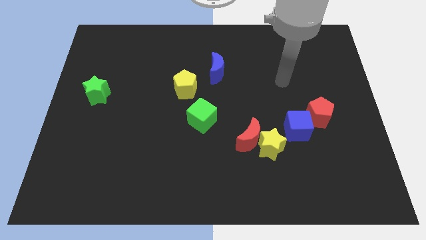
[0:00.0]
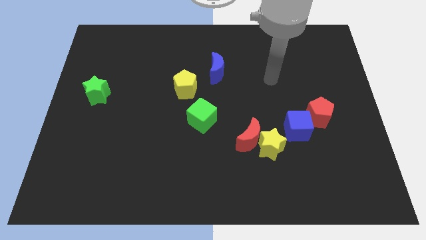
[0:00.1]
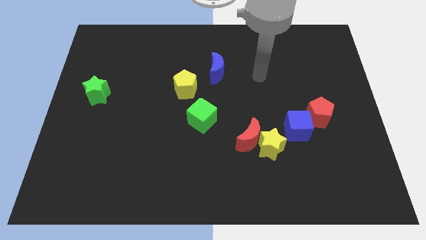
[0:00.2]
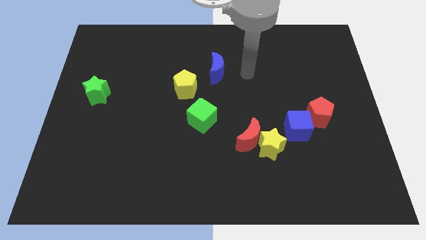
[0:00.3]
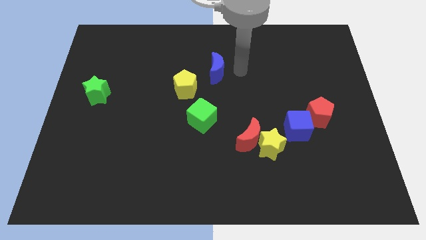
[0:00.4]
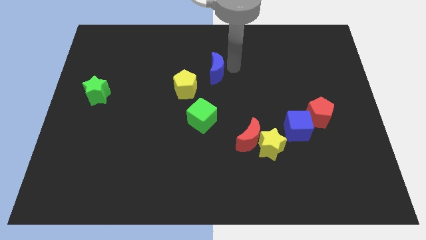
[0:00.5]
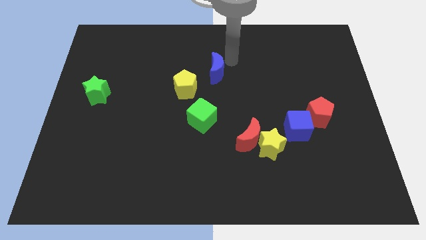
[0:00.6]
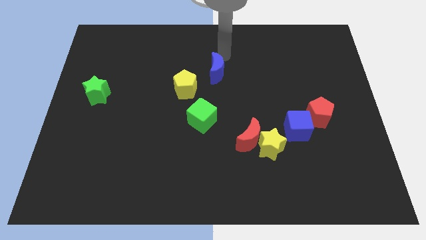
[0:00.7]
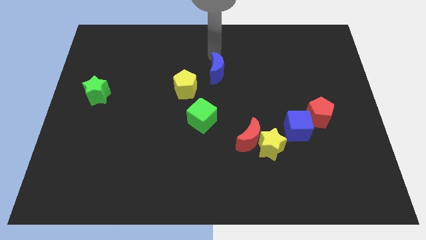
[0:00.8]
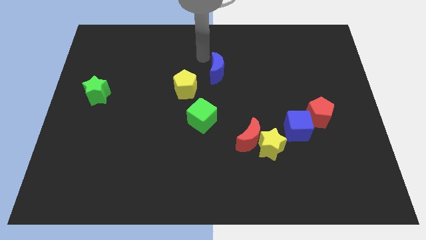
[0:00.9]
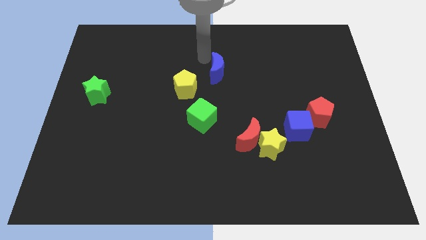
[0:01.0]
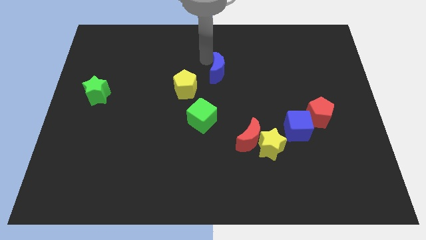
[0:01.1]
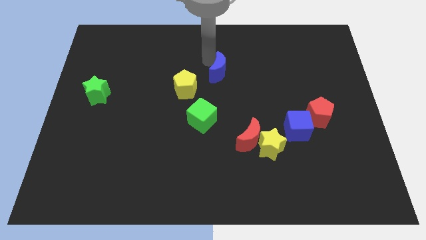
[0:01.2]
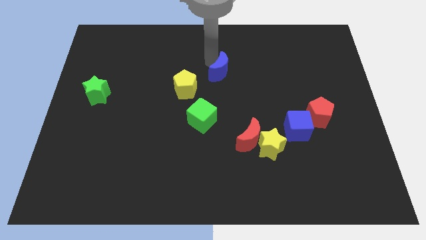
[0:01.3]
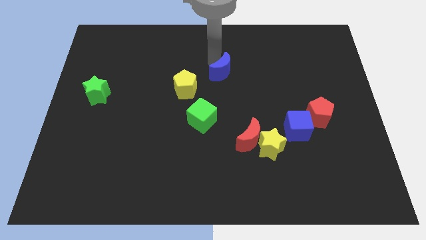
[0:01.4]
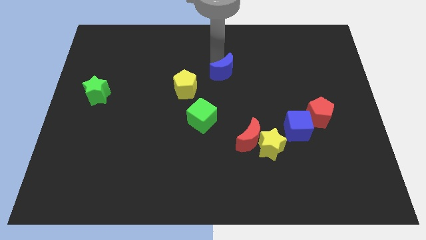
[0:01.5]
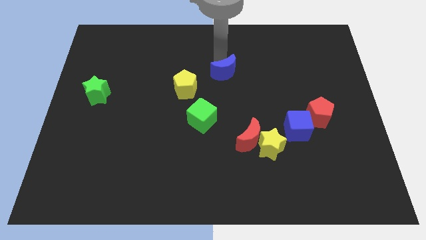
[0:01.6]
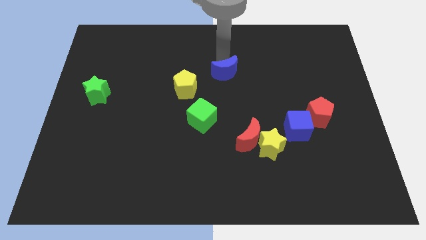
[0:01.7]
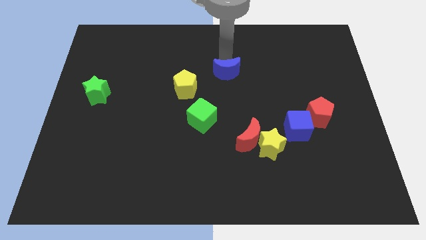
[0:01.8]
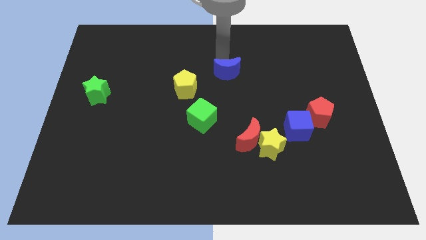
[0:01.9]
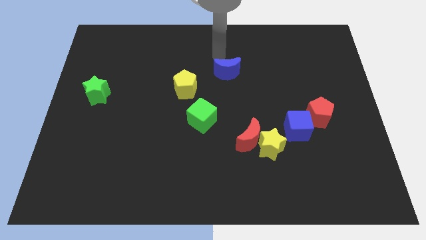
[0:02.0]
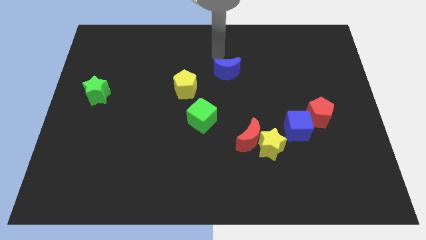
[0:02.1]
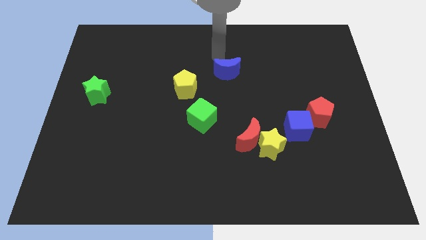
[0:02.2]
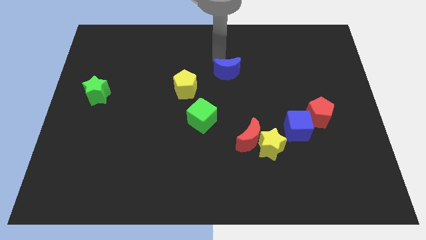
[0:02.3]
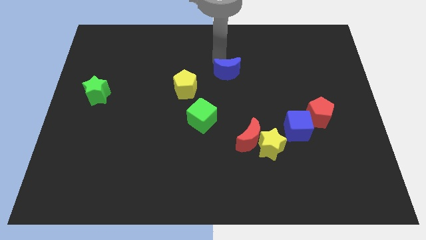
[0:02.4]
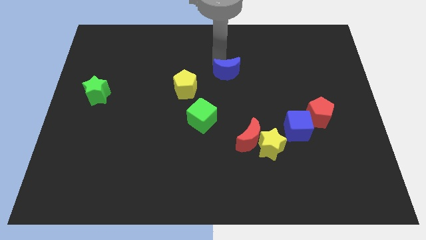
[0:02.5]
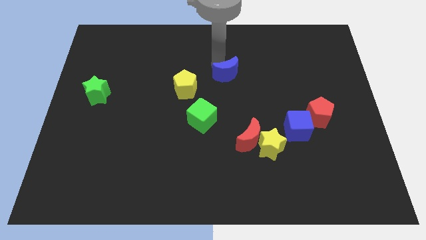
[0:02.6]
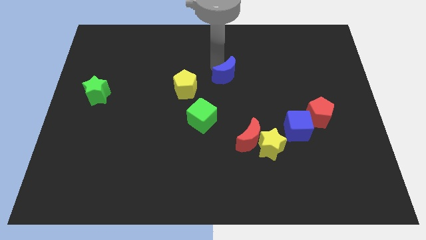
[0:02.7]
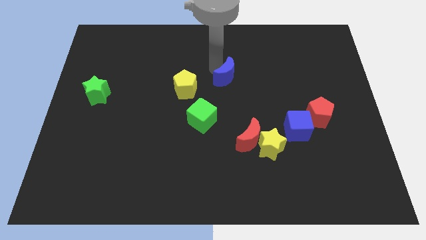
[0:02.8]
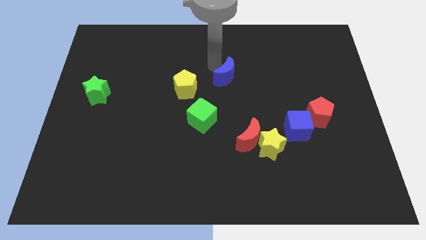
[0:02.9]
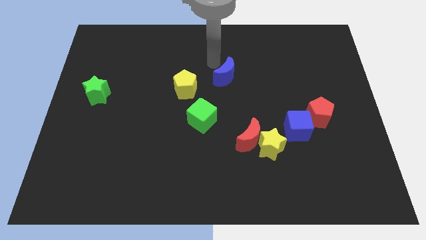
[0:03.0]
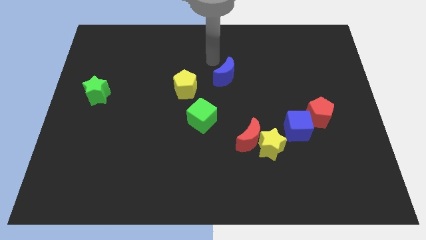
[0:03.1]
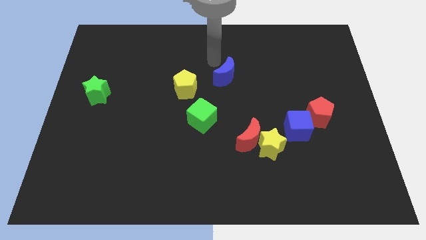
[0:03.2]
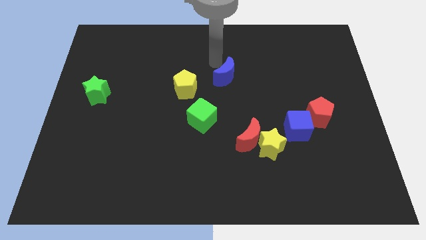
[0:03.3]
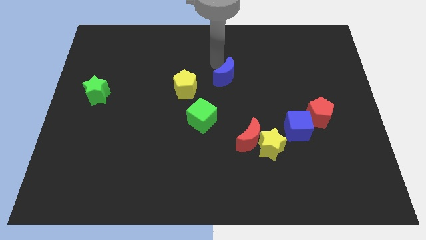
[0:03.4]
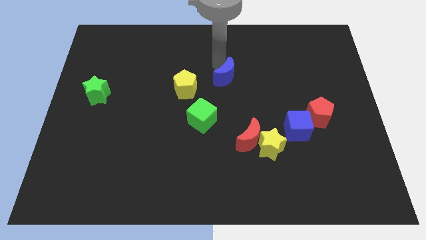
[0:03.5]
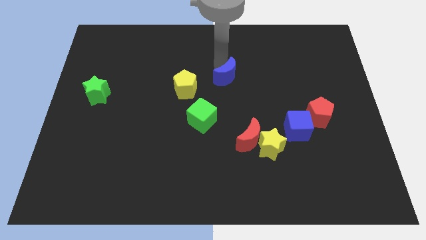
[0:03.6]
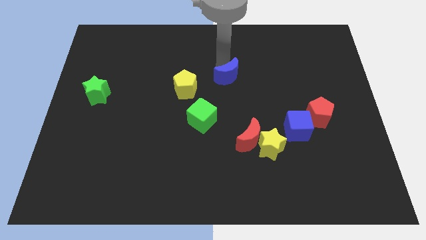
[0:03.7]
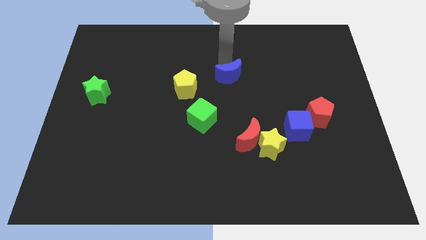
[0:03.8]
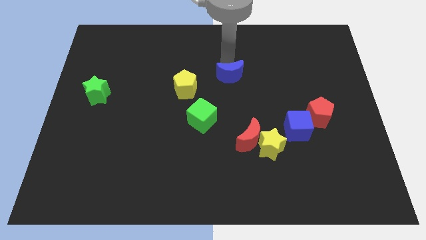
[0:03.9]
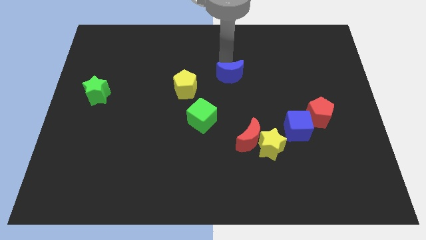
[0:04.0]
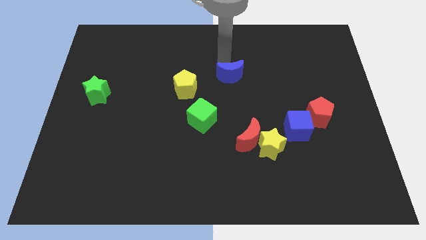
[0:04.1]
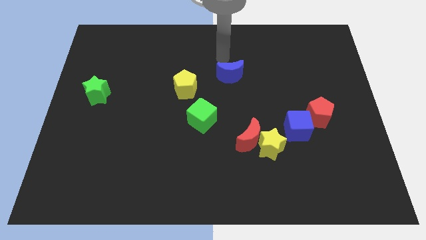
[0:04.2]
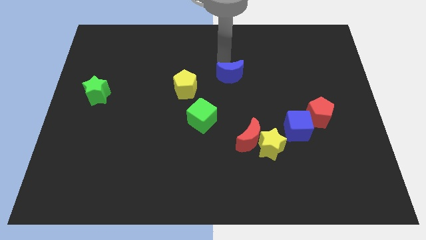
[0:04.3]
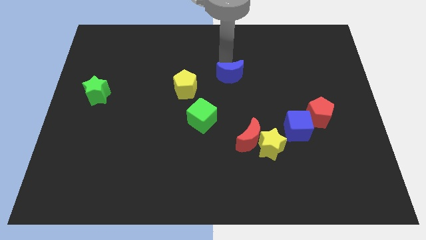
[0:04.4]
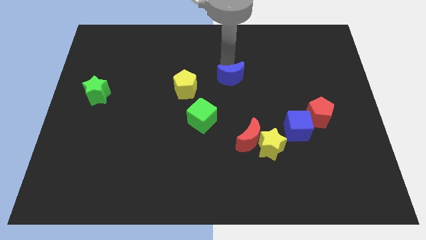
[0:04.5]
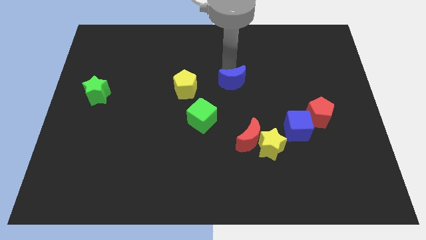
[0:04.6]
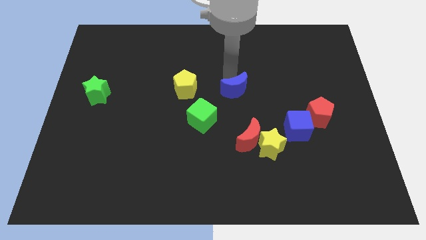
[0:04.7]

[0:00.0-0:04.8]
slightly move the blue moon downwards and to the right diagonally

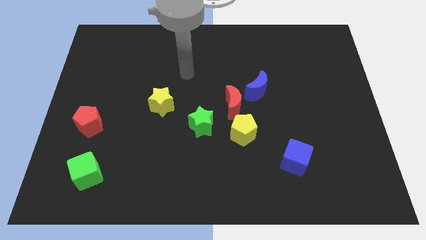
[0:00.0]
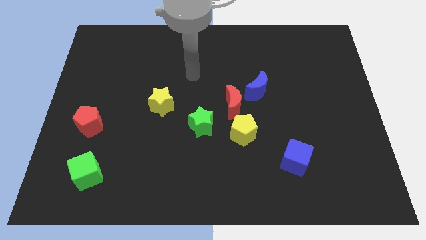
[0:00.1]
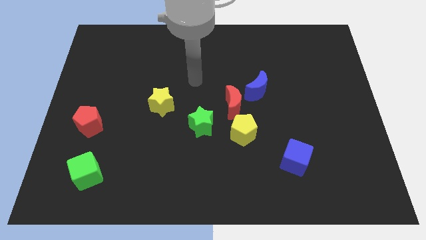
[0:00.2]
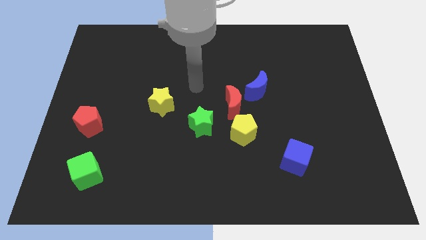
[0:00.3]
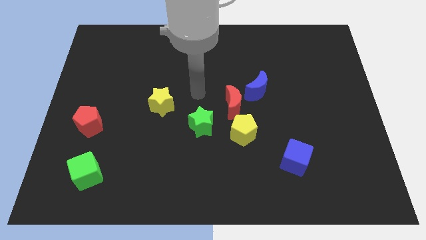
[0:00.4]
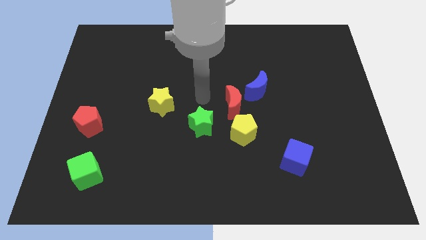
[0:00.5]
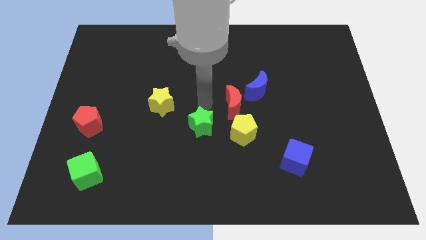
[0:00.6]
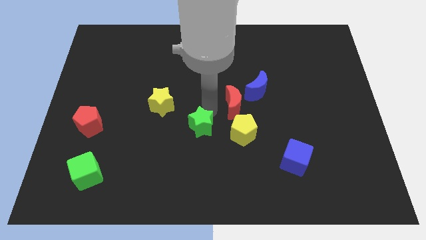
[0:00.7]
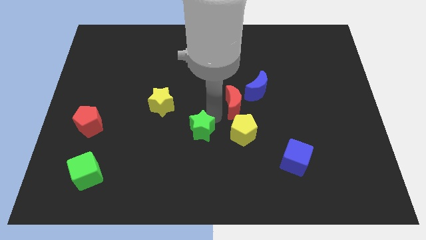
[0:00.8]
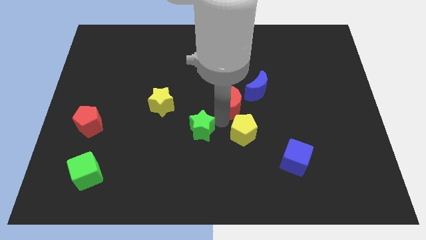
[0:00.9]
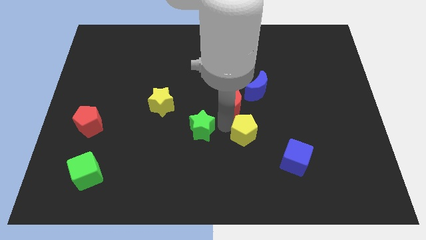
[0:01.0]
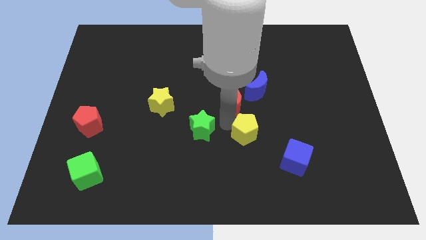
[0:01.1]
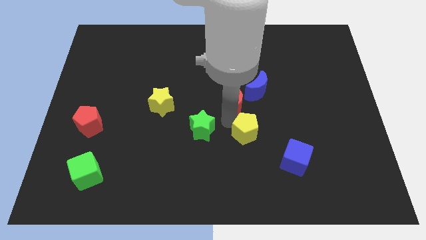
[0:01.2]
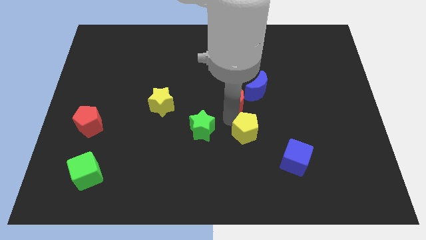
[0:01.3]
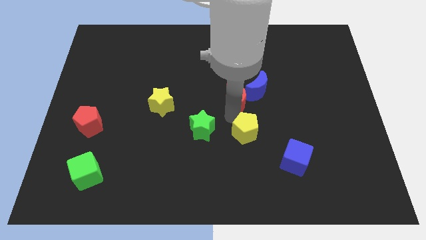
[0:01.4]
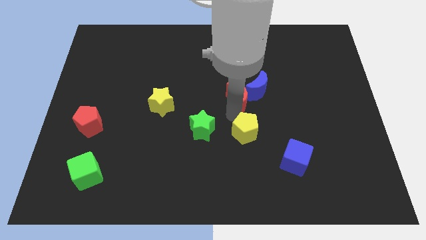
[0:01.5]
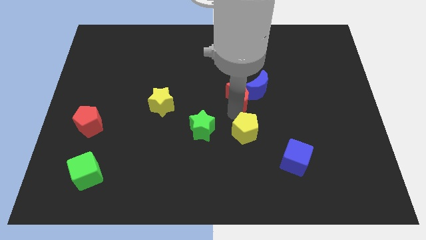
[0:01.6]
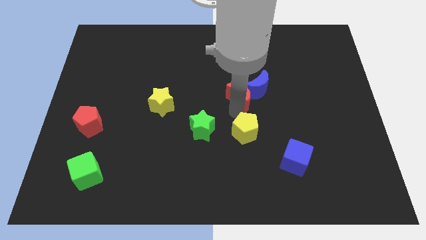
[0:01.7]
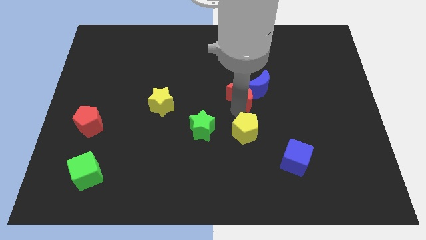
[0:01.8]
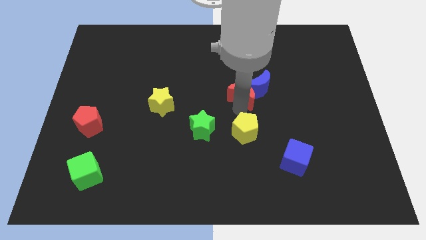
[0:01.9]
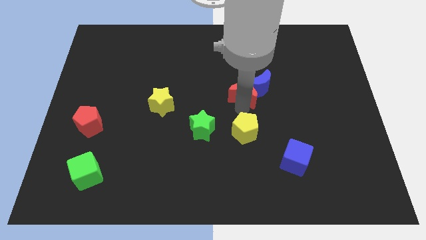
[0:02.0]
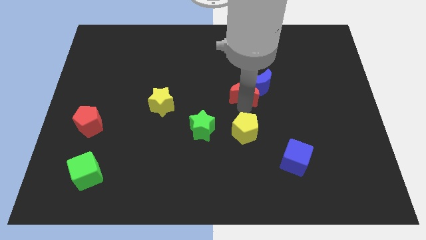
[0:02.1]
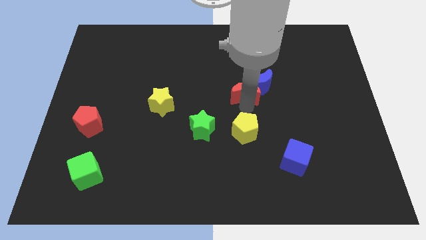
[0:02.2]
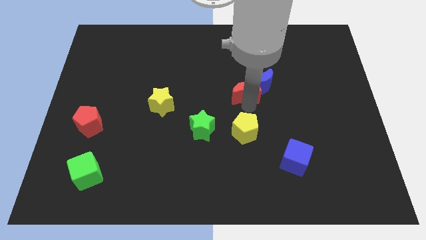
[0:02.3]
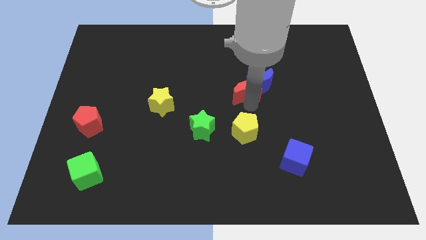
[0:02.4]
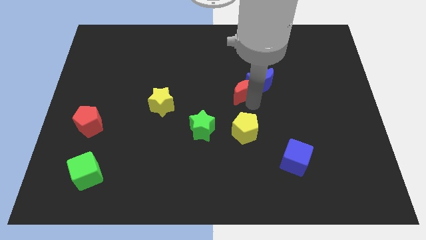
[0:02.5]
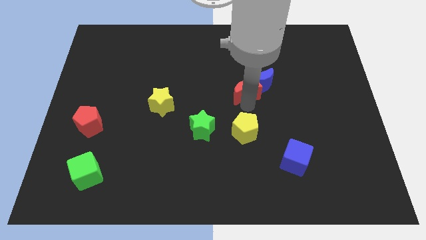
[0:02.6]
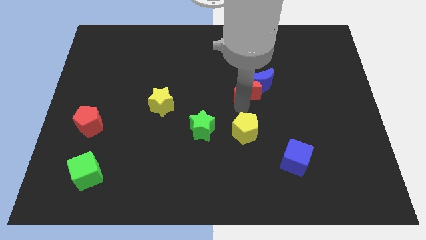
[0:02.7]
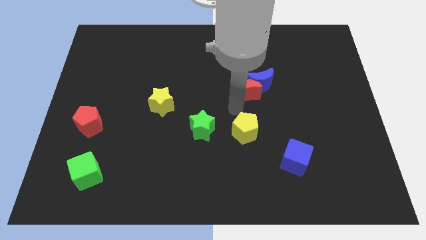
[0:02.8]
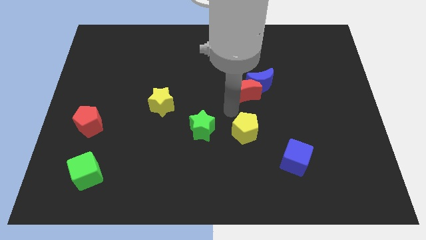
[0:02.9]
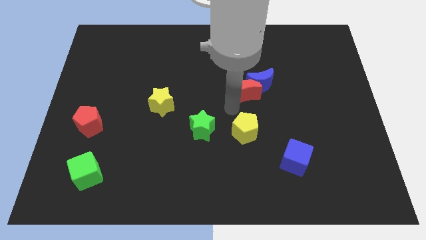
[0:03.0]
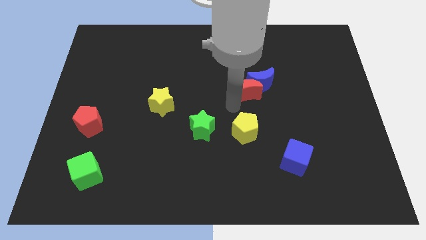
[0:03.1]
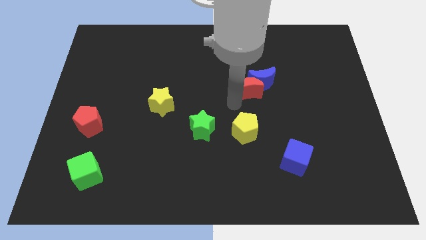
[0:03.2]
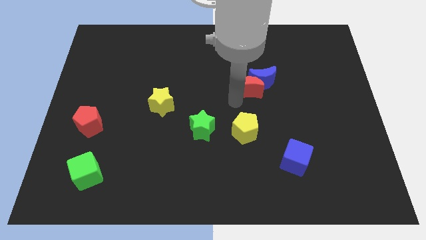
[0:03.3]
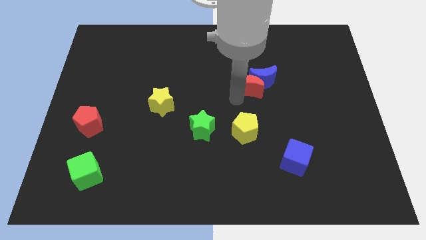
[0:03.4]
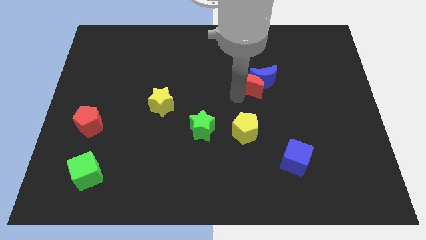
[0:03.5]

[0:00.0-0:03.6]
slide the red moon up and then right slightly
